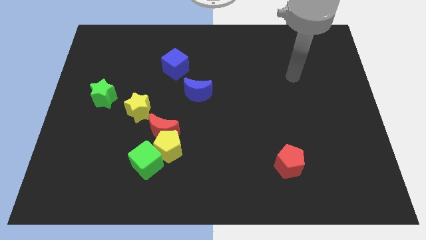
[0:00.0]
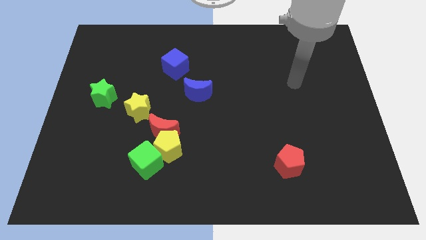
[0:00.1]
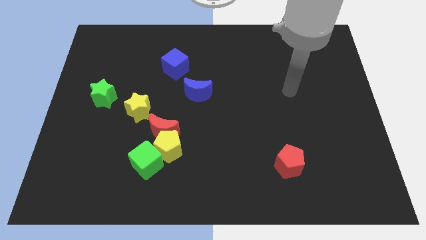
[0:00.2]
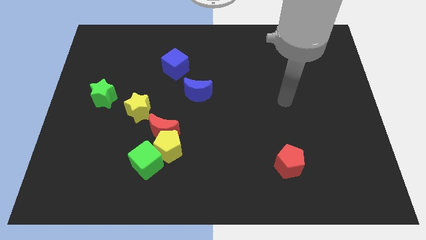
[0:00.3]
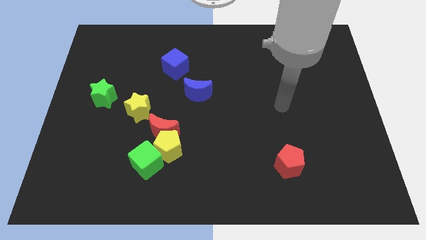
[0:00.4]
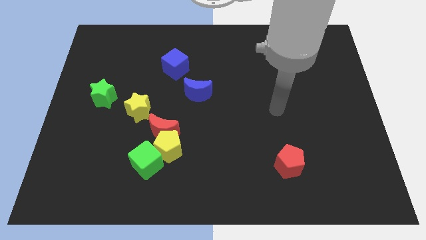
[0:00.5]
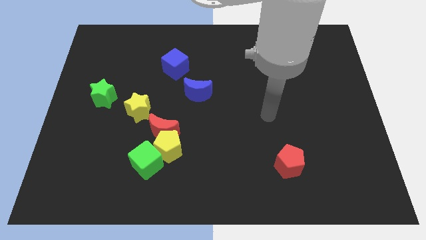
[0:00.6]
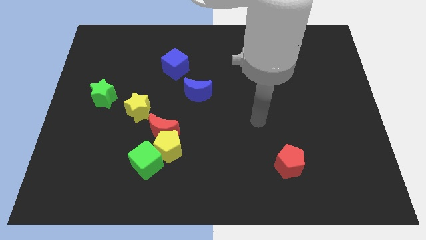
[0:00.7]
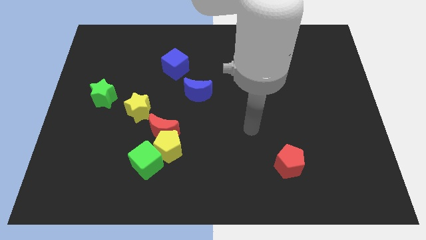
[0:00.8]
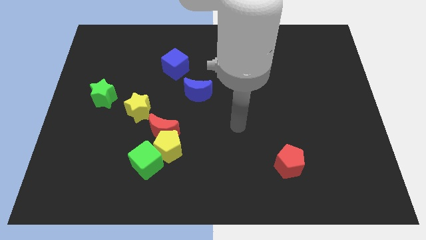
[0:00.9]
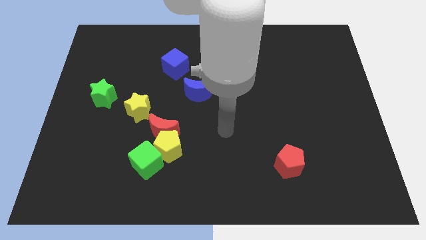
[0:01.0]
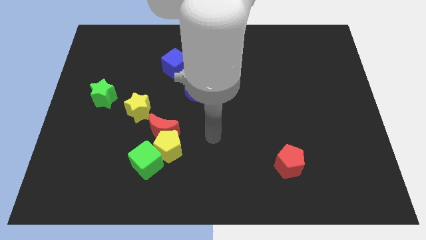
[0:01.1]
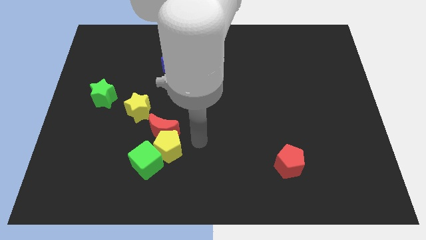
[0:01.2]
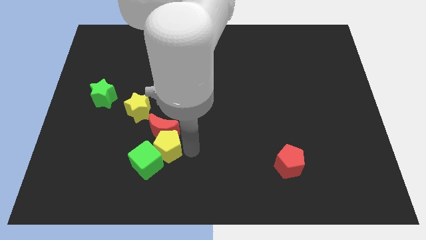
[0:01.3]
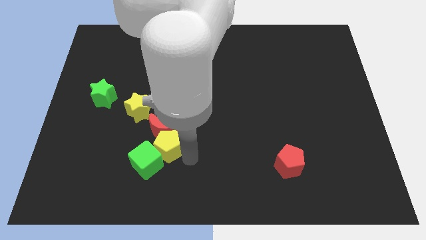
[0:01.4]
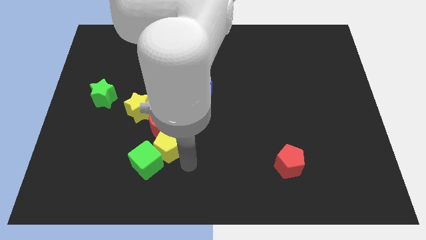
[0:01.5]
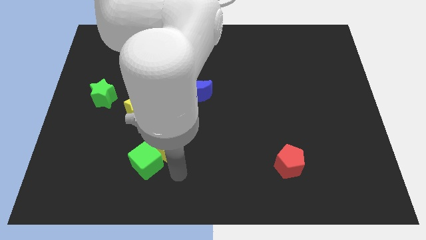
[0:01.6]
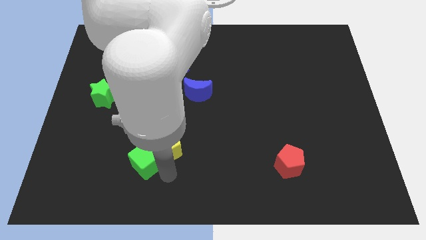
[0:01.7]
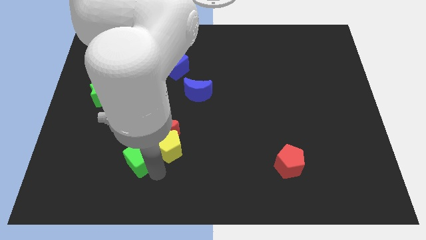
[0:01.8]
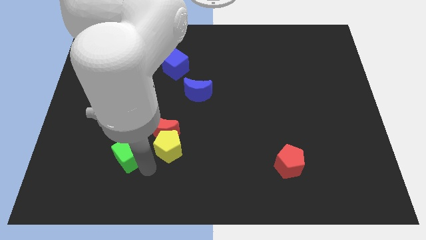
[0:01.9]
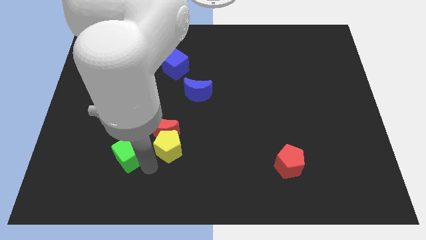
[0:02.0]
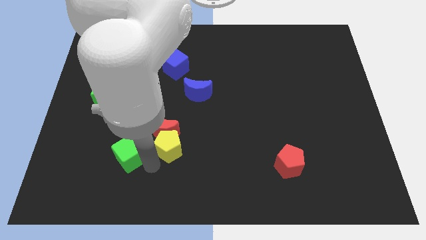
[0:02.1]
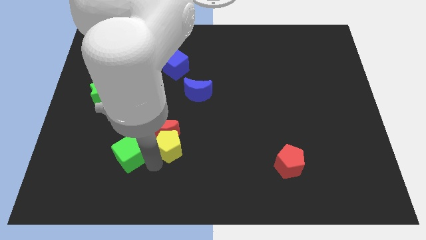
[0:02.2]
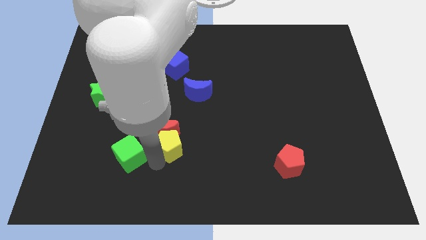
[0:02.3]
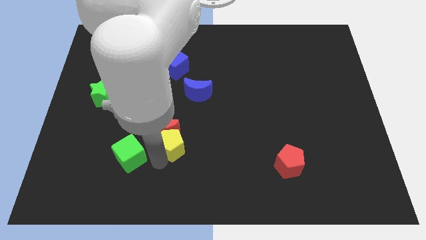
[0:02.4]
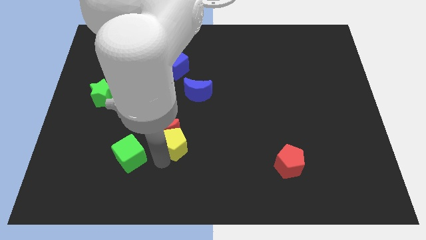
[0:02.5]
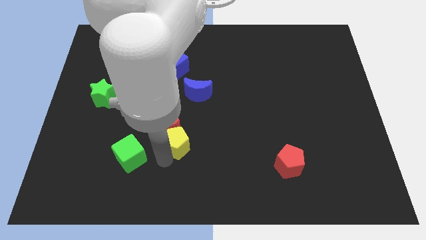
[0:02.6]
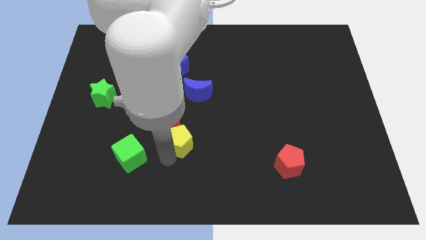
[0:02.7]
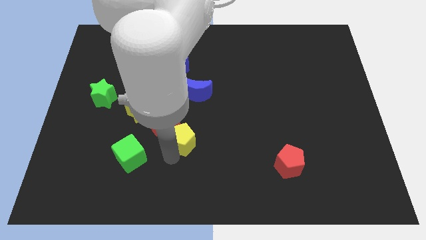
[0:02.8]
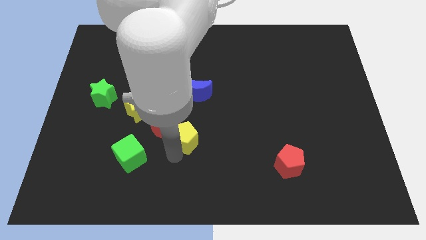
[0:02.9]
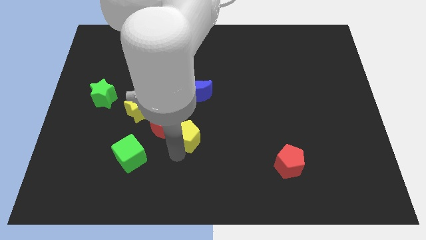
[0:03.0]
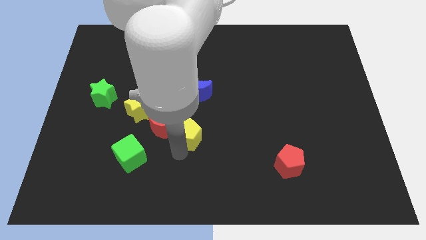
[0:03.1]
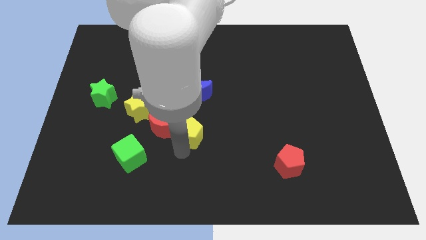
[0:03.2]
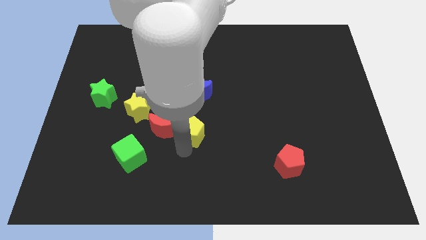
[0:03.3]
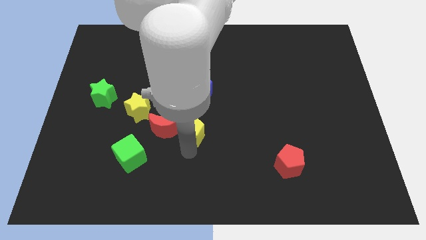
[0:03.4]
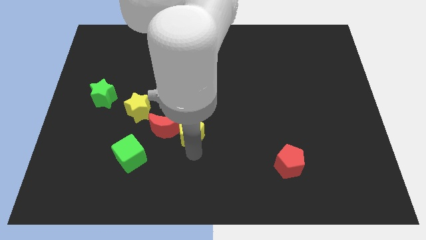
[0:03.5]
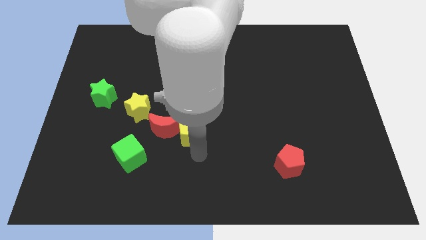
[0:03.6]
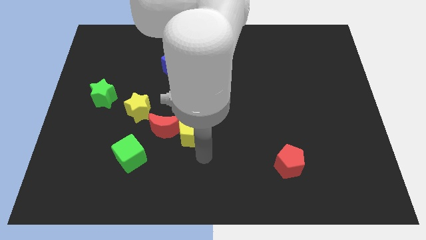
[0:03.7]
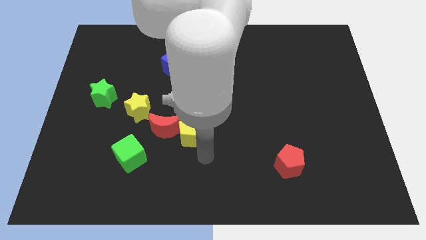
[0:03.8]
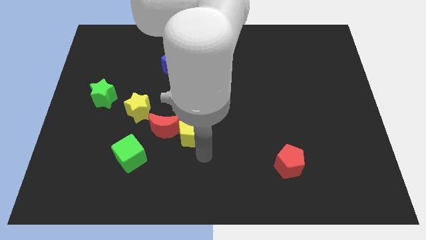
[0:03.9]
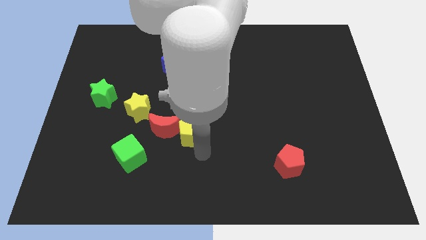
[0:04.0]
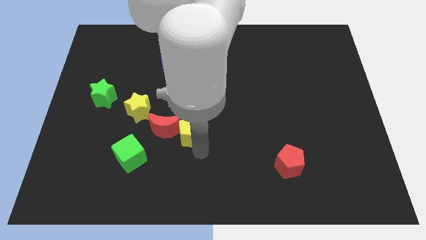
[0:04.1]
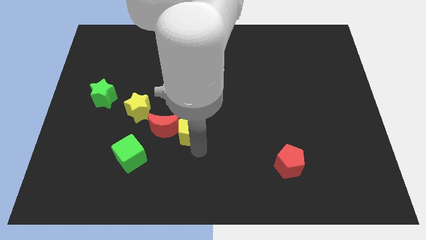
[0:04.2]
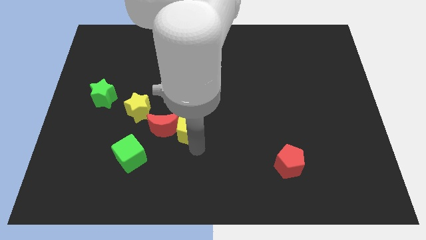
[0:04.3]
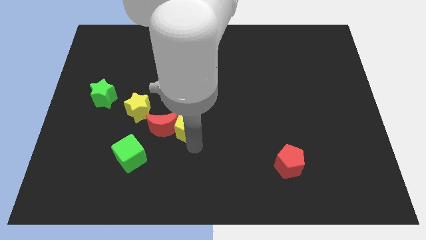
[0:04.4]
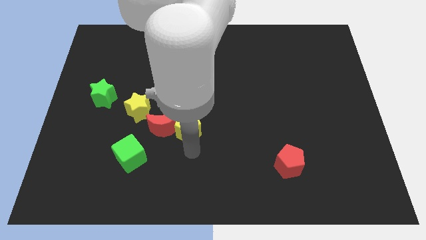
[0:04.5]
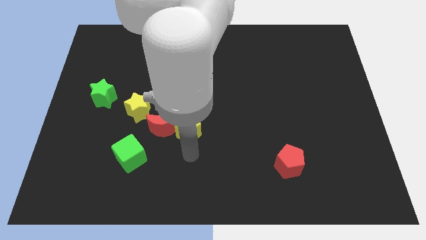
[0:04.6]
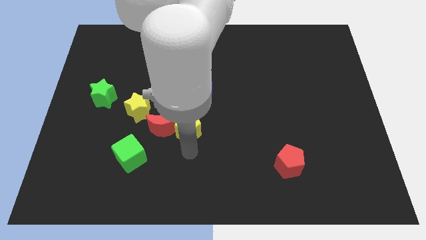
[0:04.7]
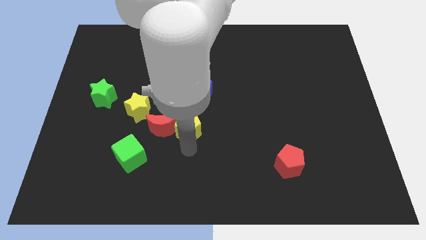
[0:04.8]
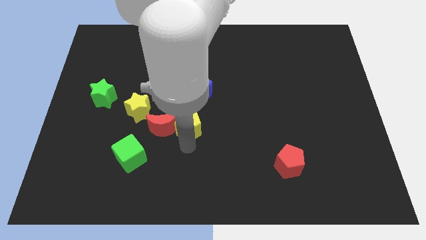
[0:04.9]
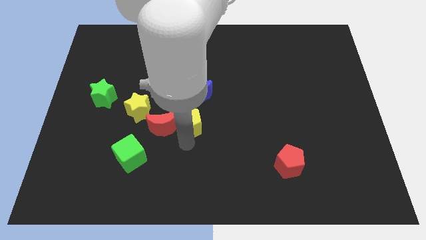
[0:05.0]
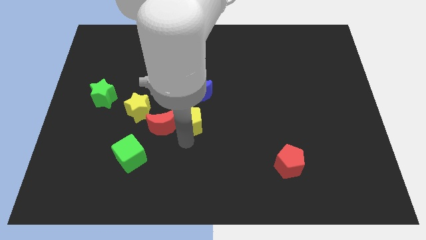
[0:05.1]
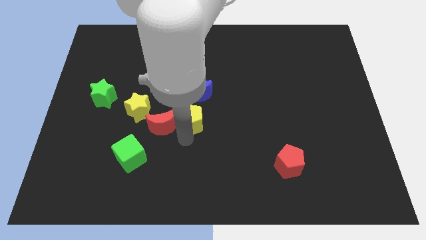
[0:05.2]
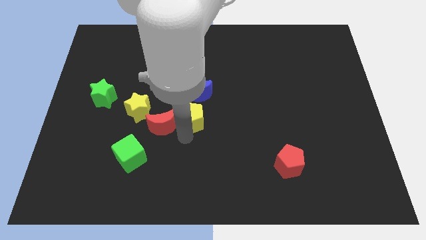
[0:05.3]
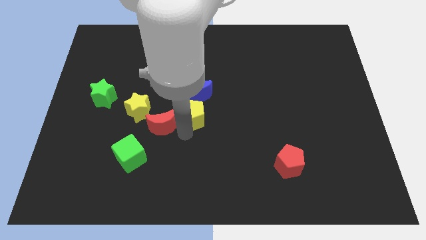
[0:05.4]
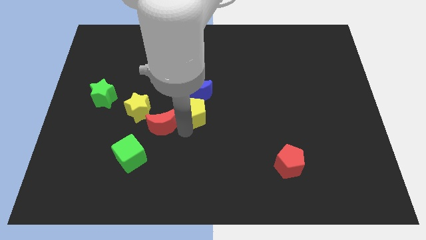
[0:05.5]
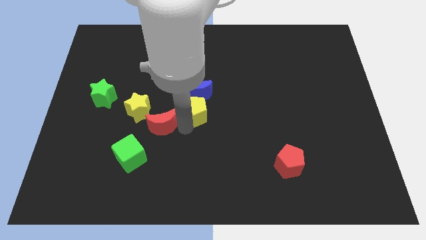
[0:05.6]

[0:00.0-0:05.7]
push the yellow pentagon close to the blue moon

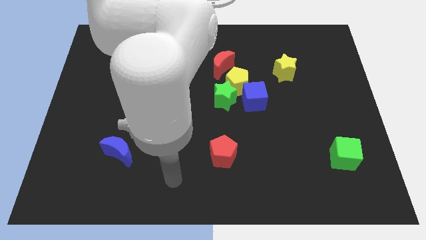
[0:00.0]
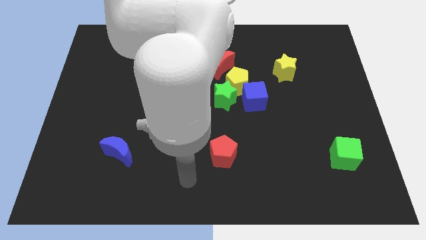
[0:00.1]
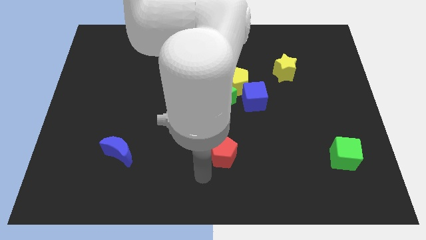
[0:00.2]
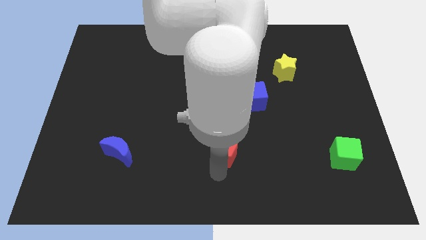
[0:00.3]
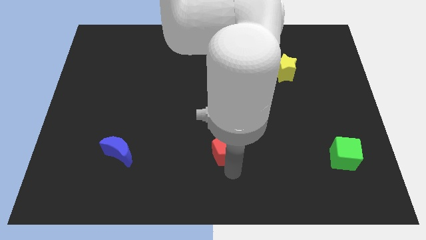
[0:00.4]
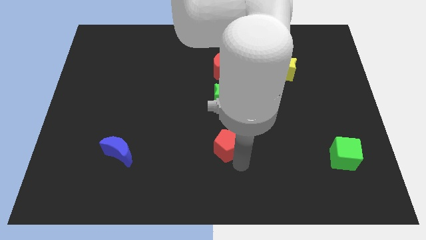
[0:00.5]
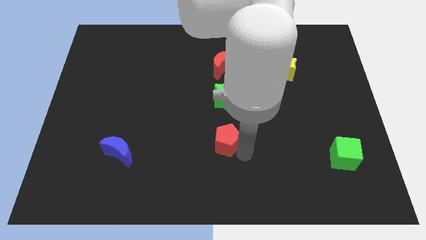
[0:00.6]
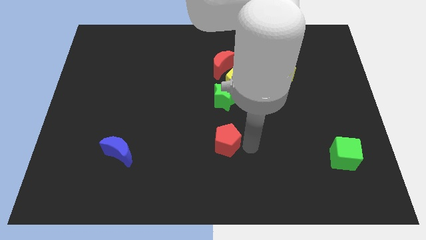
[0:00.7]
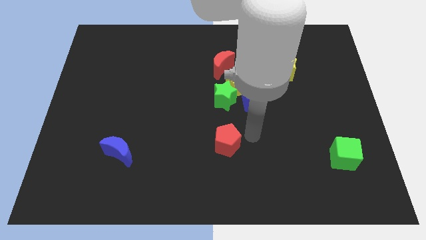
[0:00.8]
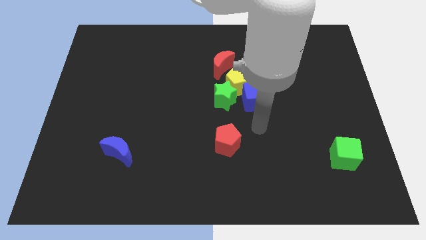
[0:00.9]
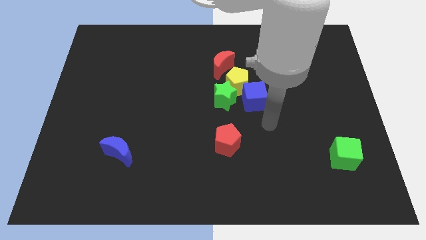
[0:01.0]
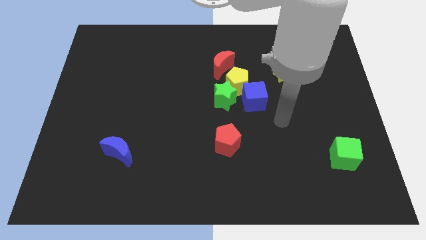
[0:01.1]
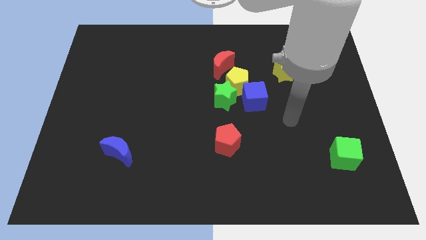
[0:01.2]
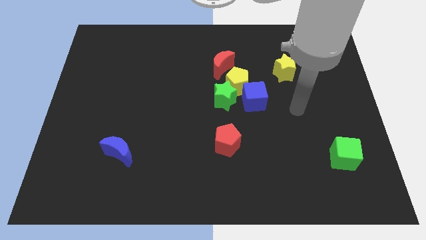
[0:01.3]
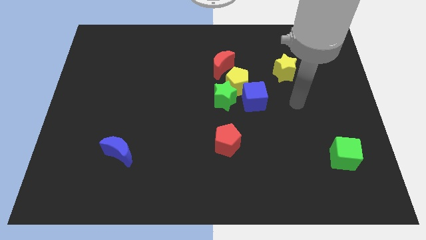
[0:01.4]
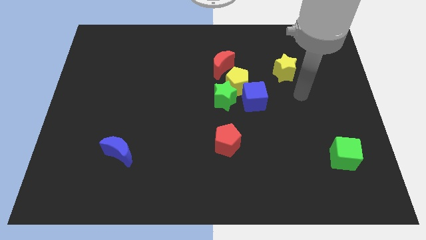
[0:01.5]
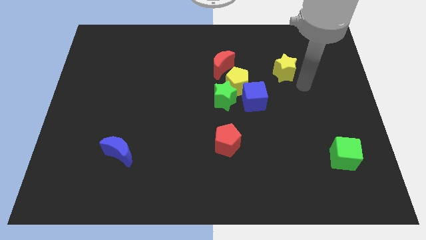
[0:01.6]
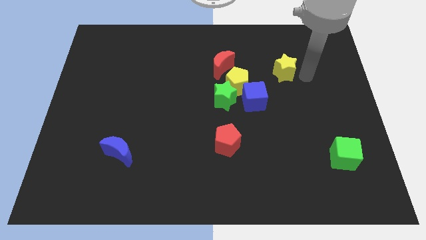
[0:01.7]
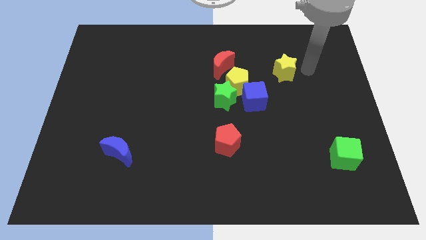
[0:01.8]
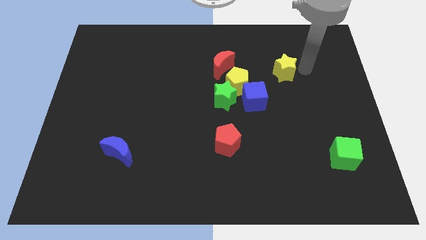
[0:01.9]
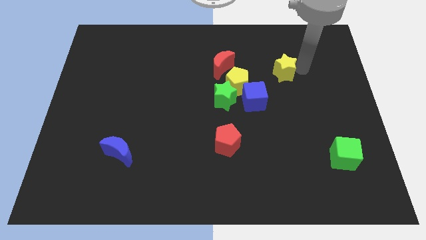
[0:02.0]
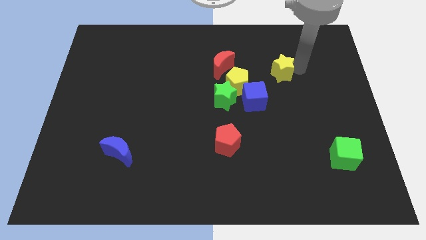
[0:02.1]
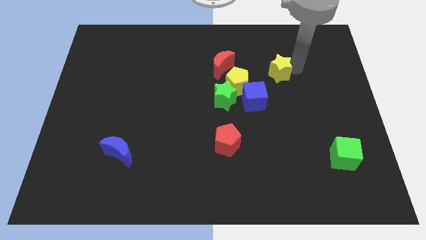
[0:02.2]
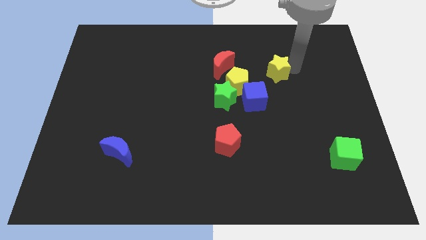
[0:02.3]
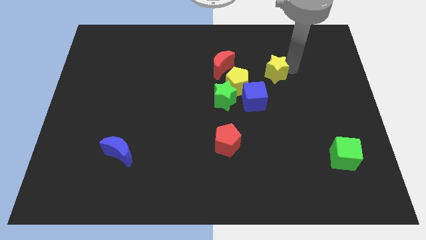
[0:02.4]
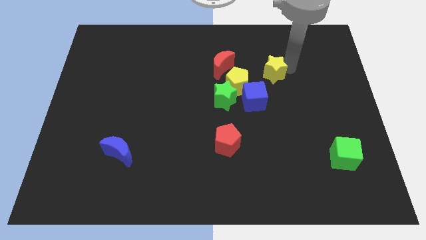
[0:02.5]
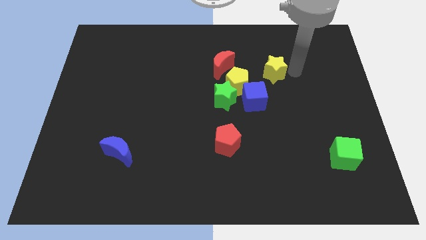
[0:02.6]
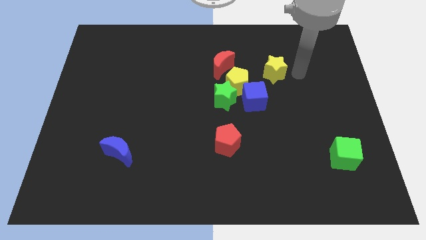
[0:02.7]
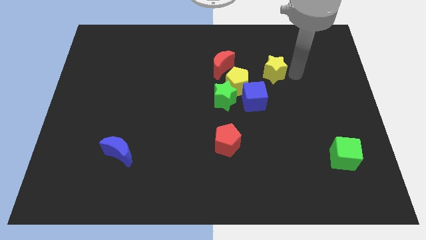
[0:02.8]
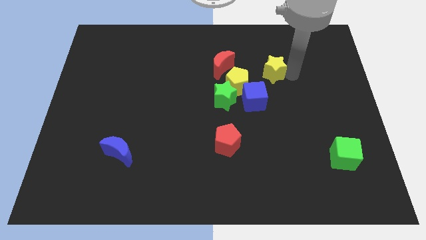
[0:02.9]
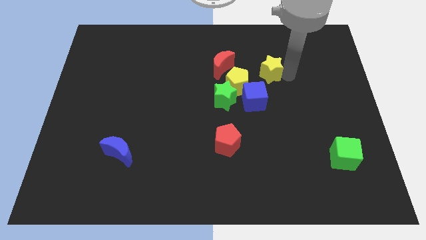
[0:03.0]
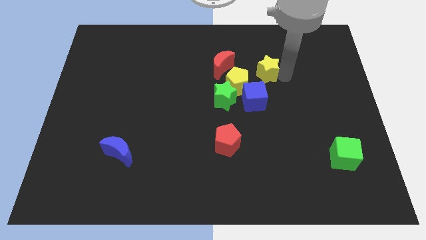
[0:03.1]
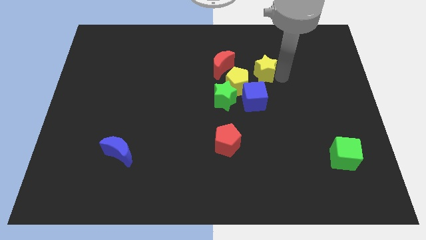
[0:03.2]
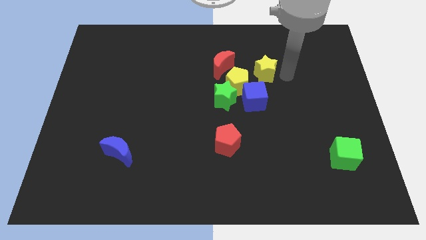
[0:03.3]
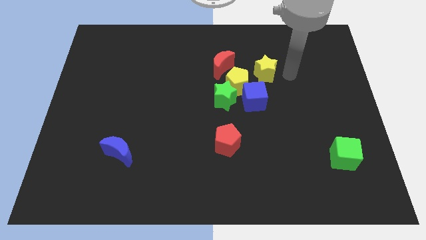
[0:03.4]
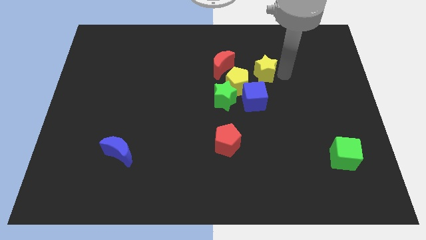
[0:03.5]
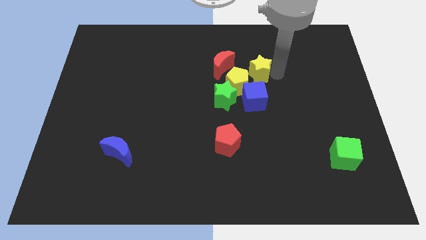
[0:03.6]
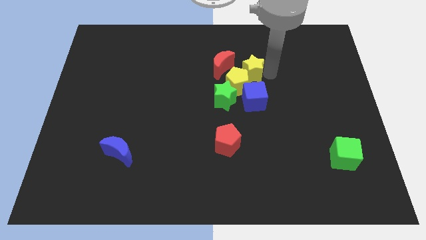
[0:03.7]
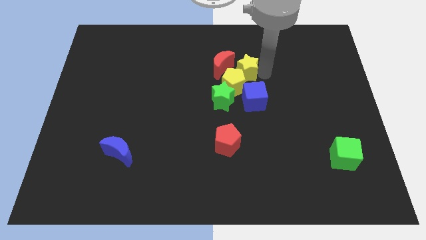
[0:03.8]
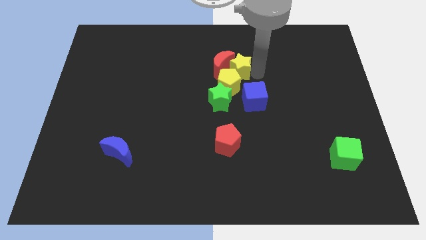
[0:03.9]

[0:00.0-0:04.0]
put the yellow star next to the red moon
